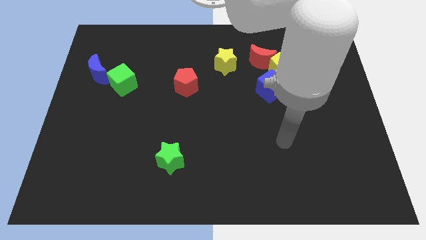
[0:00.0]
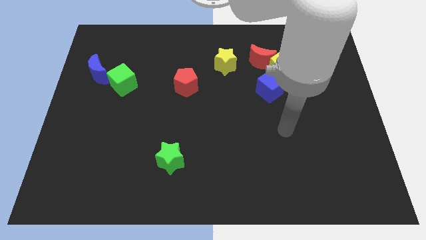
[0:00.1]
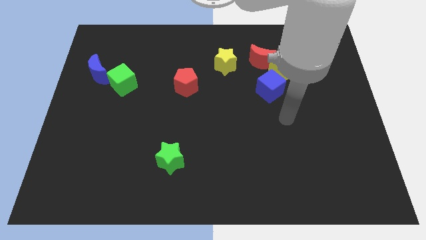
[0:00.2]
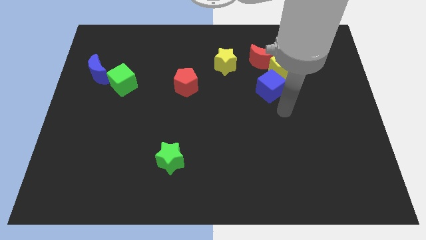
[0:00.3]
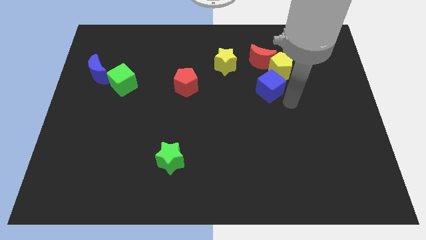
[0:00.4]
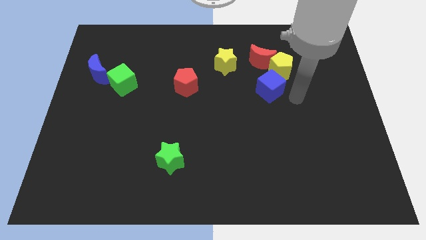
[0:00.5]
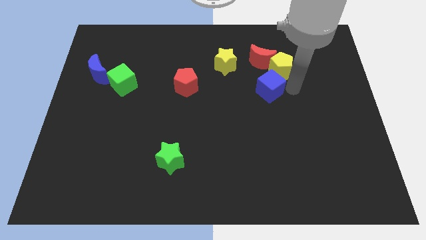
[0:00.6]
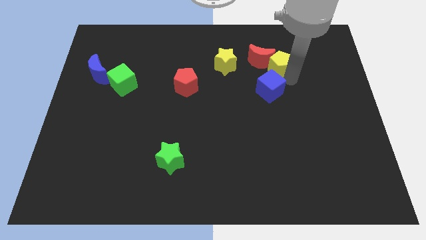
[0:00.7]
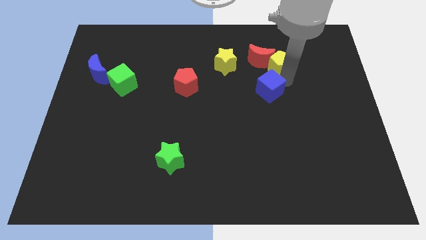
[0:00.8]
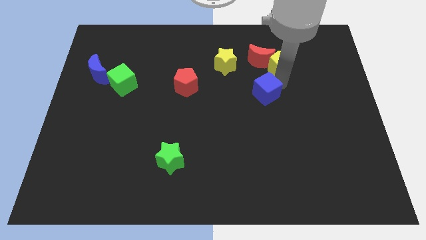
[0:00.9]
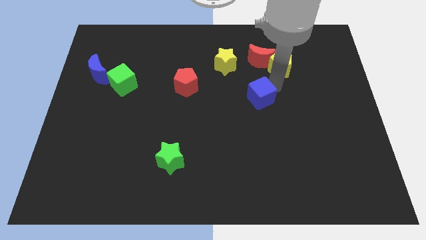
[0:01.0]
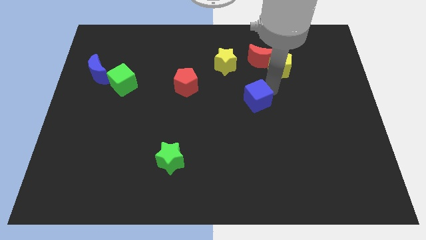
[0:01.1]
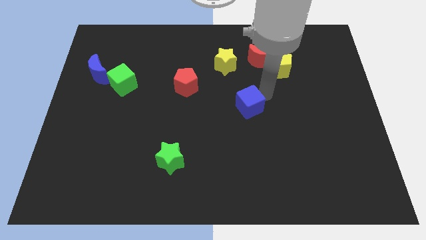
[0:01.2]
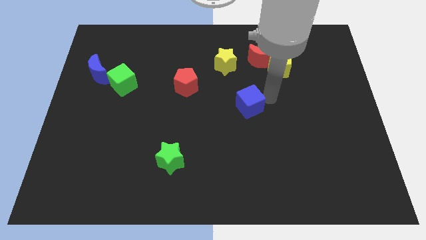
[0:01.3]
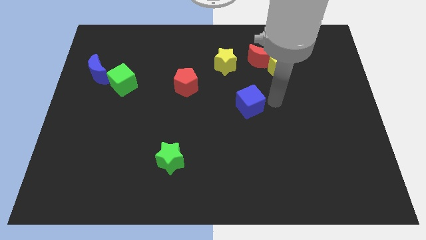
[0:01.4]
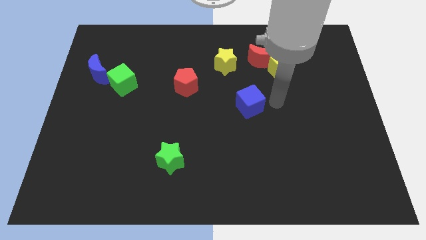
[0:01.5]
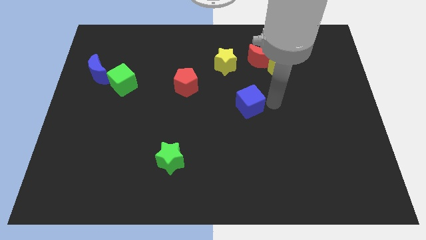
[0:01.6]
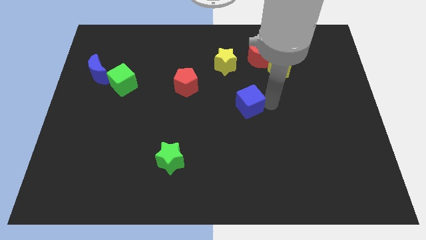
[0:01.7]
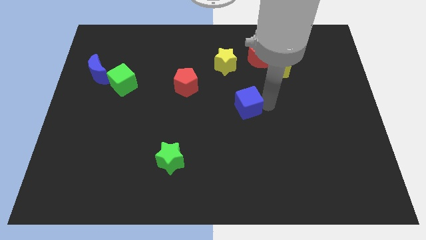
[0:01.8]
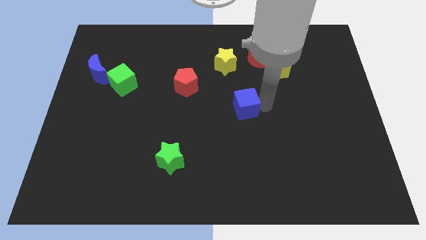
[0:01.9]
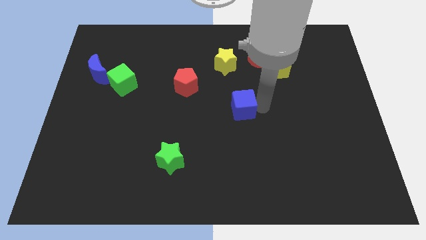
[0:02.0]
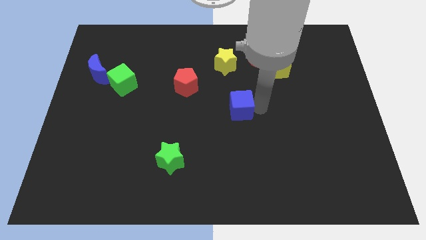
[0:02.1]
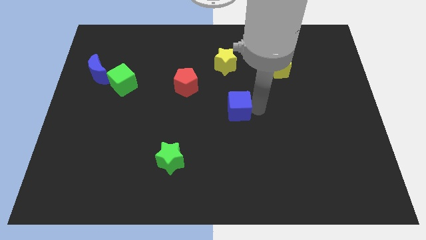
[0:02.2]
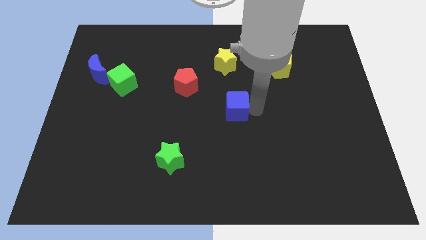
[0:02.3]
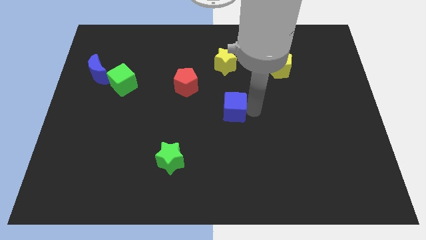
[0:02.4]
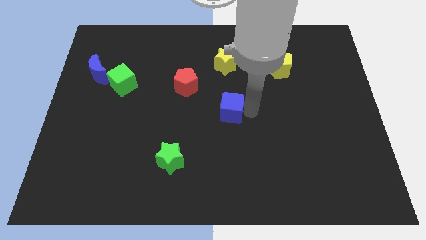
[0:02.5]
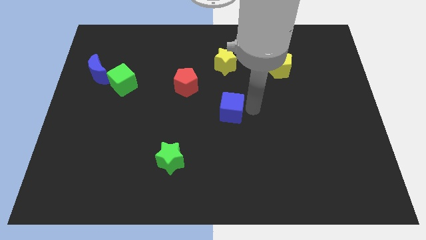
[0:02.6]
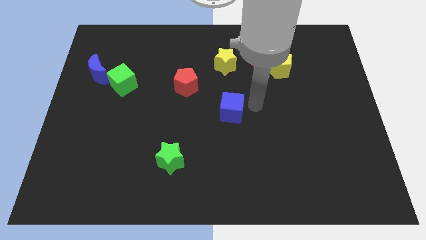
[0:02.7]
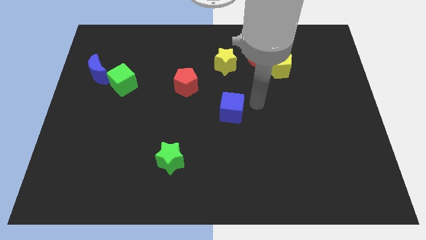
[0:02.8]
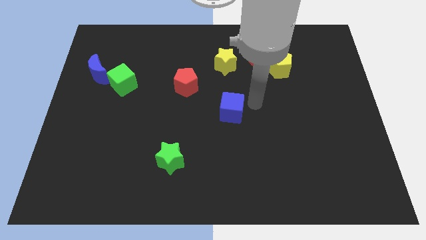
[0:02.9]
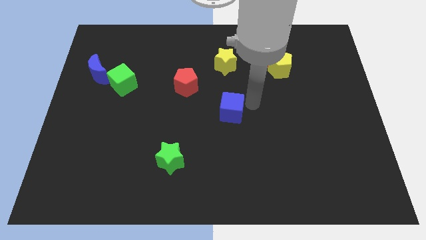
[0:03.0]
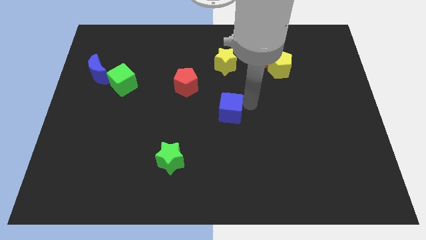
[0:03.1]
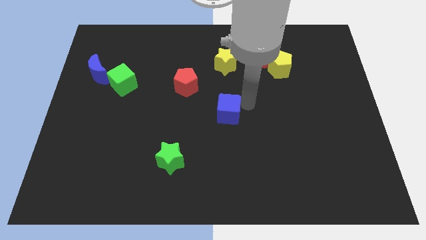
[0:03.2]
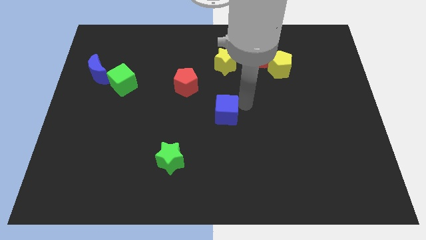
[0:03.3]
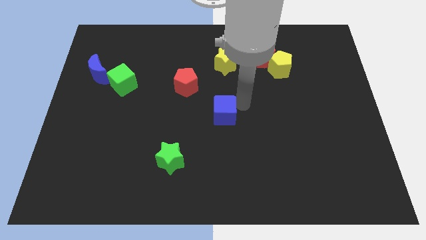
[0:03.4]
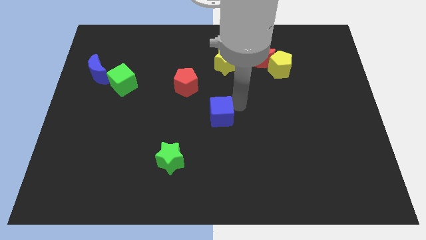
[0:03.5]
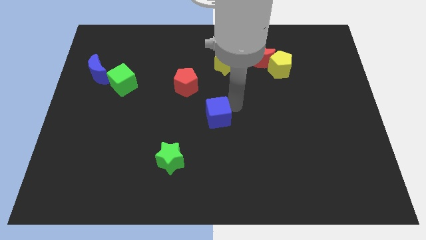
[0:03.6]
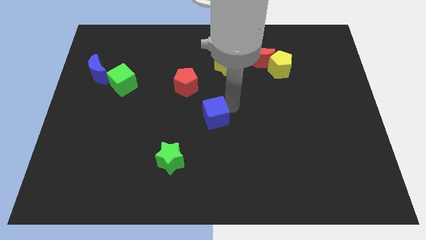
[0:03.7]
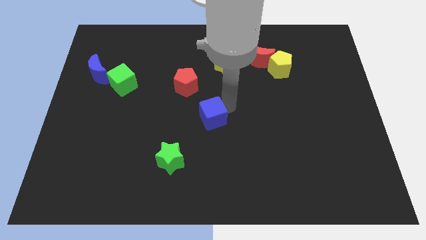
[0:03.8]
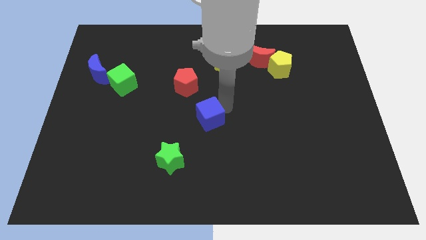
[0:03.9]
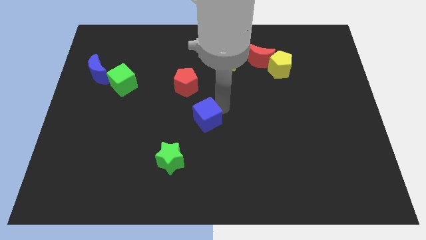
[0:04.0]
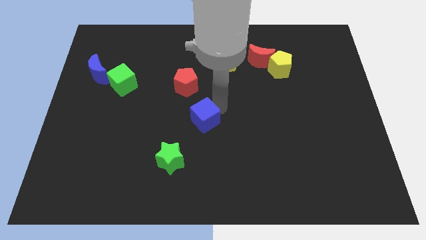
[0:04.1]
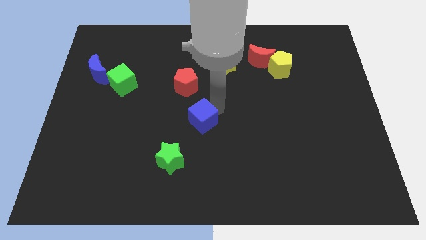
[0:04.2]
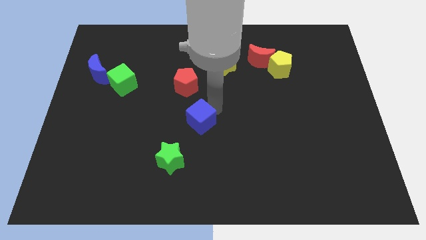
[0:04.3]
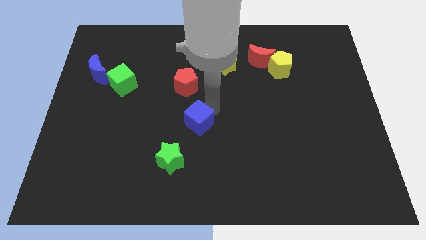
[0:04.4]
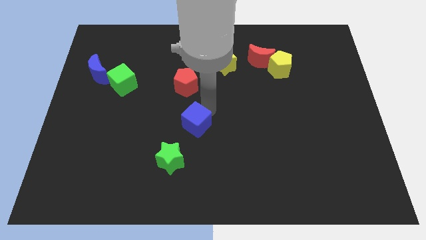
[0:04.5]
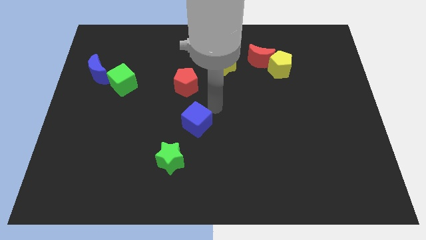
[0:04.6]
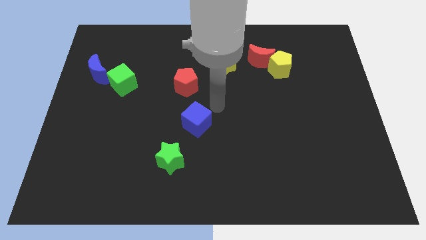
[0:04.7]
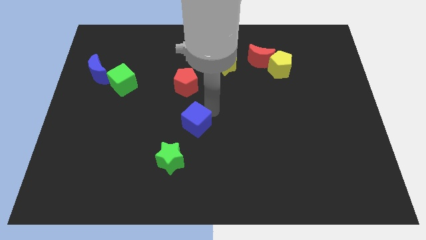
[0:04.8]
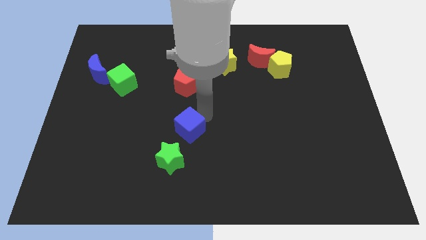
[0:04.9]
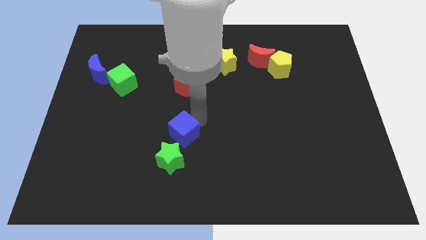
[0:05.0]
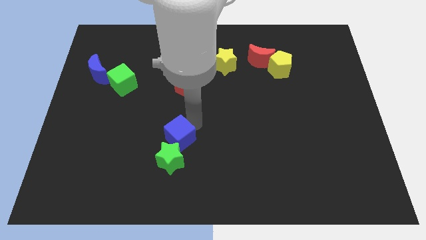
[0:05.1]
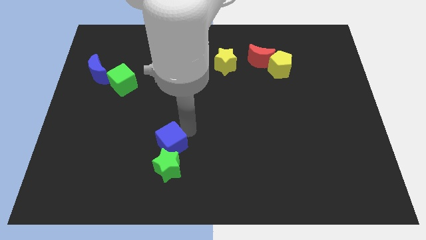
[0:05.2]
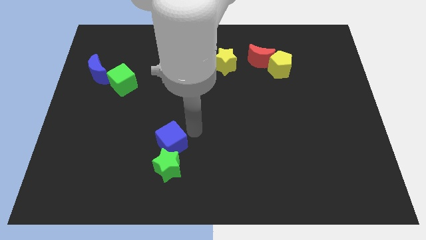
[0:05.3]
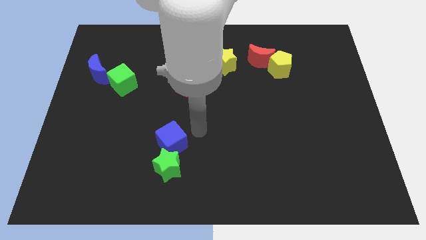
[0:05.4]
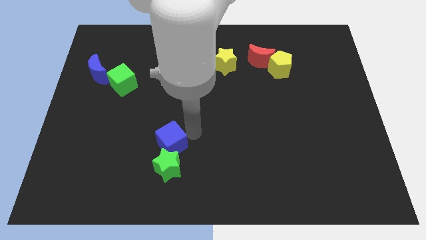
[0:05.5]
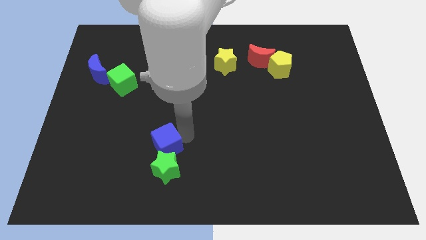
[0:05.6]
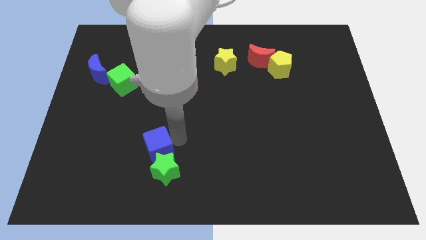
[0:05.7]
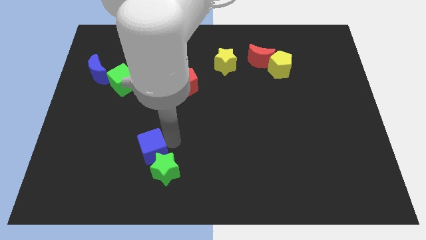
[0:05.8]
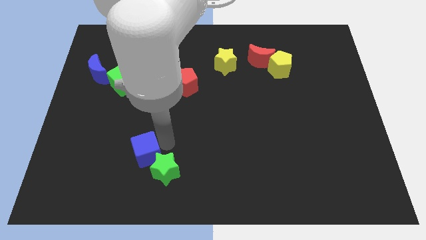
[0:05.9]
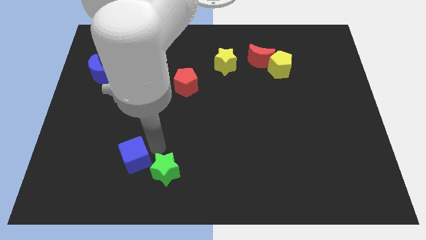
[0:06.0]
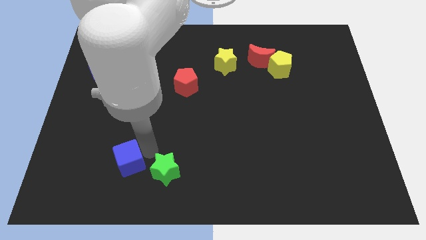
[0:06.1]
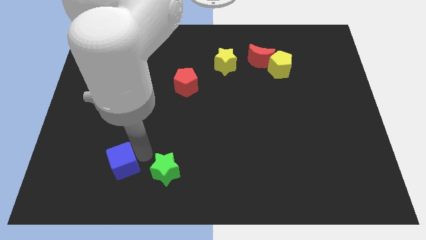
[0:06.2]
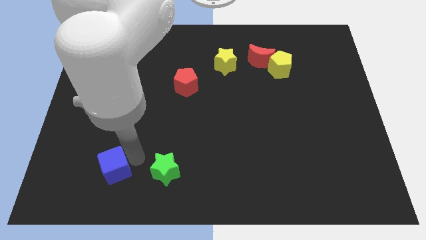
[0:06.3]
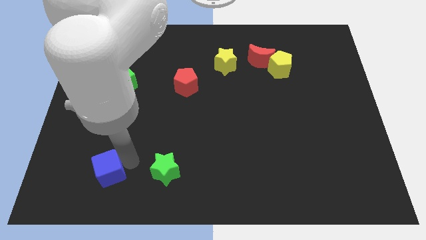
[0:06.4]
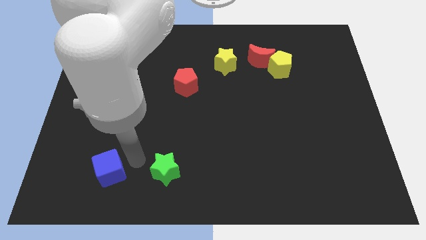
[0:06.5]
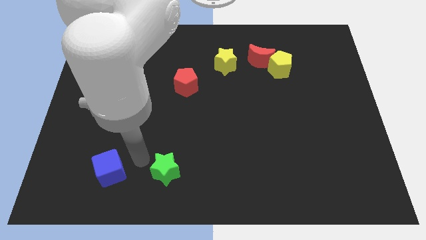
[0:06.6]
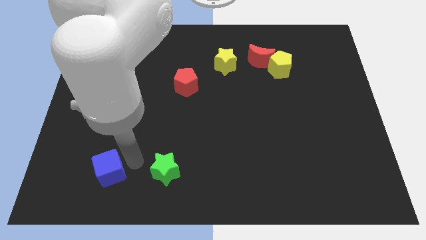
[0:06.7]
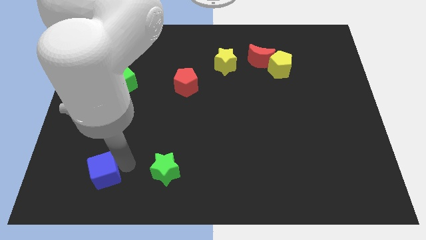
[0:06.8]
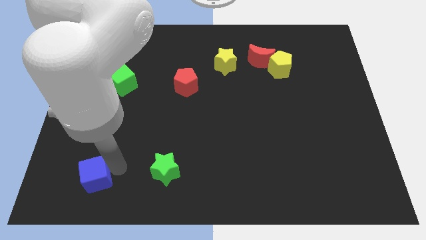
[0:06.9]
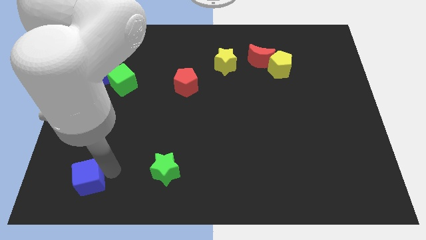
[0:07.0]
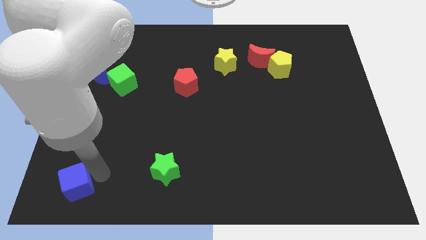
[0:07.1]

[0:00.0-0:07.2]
slide the blue cube to the lower left corner
